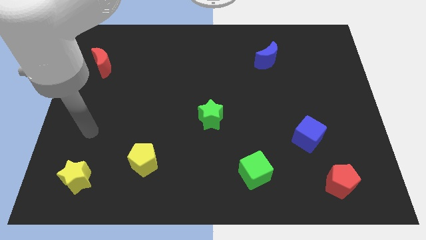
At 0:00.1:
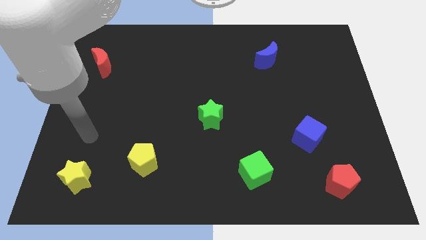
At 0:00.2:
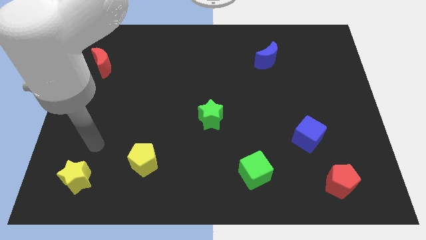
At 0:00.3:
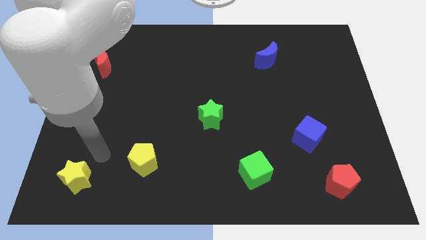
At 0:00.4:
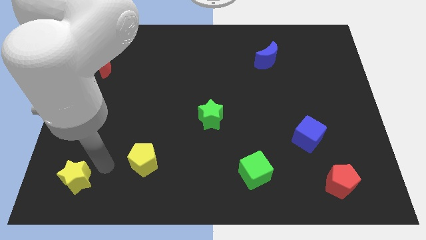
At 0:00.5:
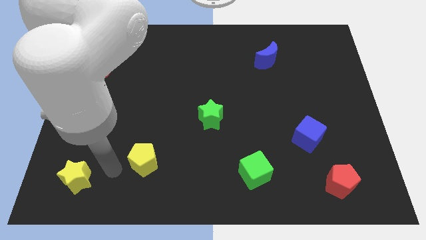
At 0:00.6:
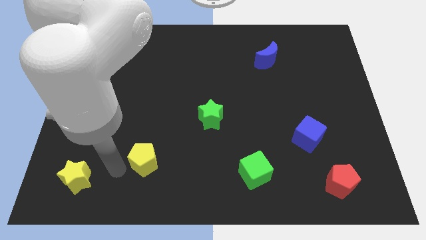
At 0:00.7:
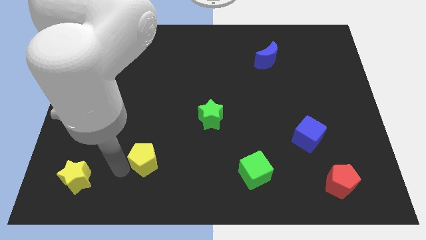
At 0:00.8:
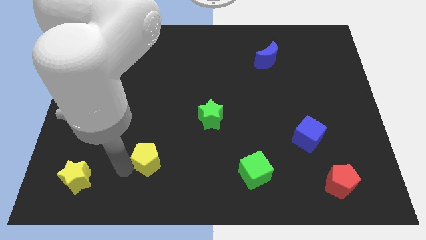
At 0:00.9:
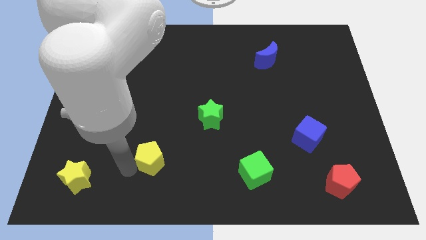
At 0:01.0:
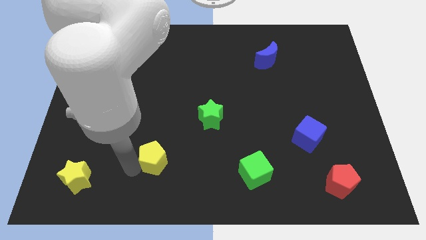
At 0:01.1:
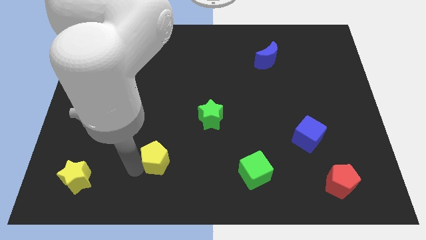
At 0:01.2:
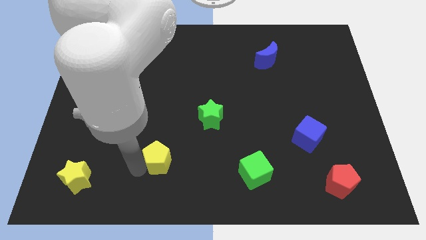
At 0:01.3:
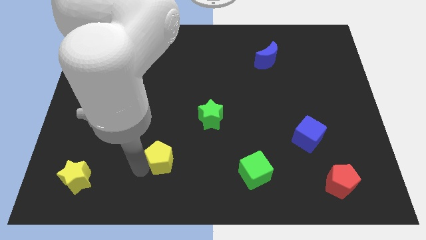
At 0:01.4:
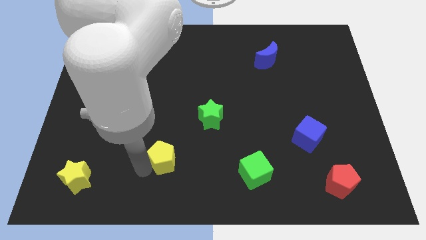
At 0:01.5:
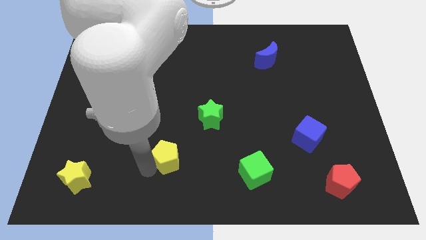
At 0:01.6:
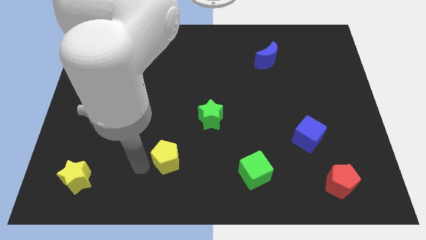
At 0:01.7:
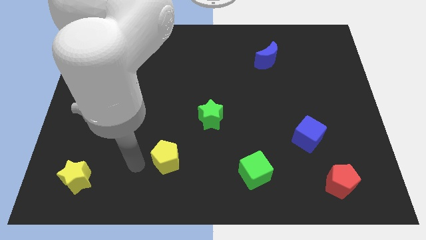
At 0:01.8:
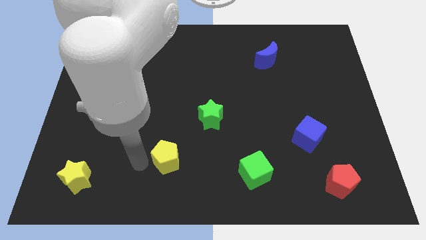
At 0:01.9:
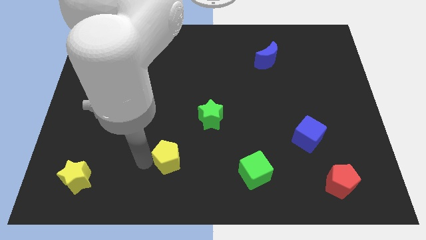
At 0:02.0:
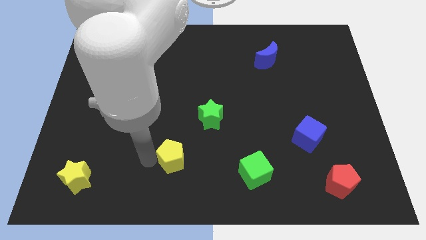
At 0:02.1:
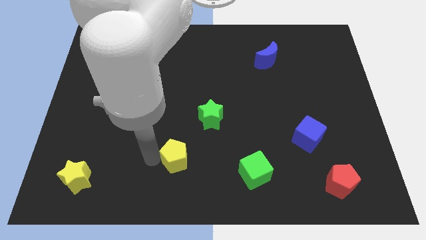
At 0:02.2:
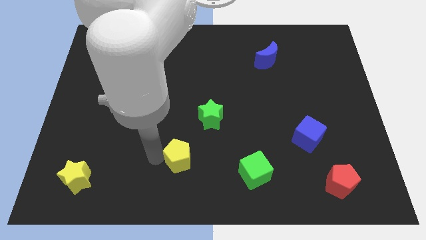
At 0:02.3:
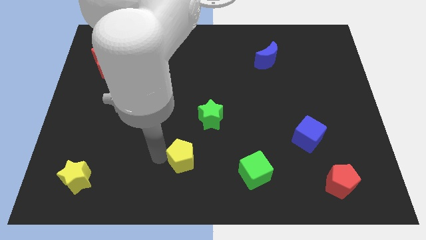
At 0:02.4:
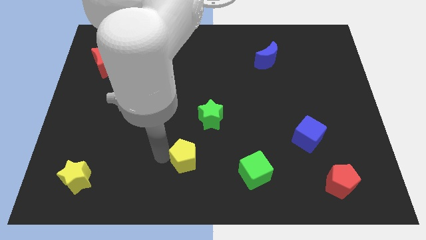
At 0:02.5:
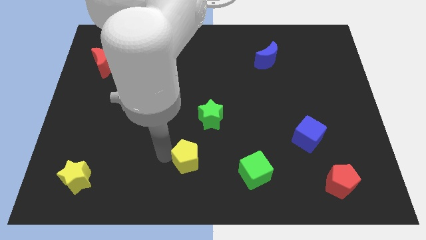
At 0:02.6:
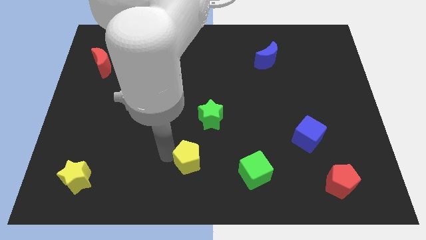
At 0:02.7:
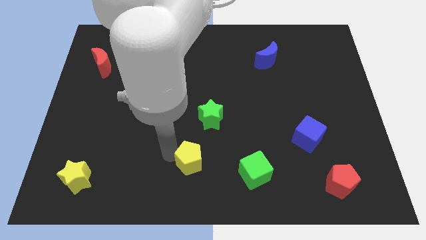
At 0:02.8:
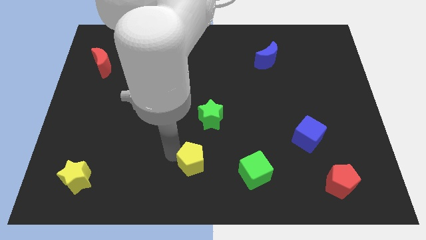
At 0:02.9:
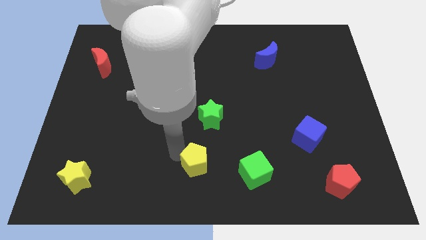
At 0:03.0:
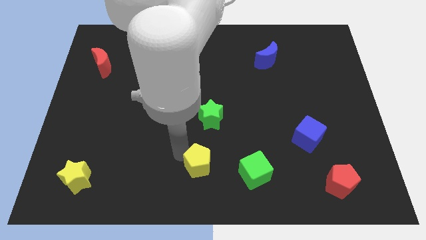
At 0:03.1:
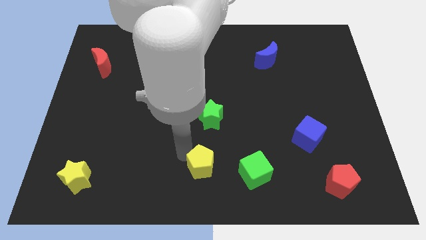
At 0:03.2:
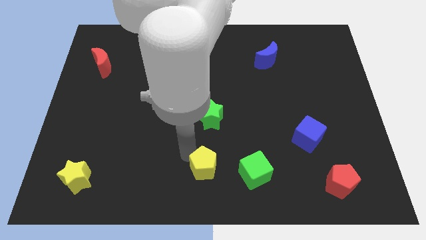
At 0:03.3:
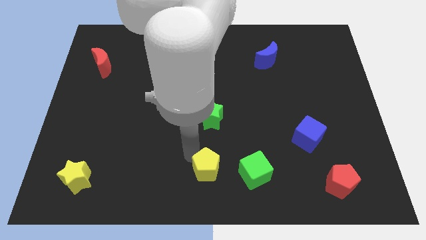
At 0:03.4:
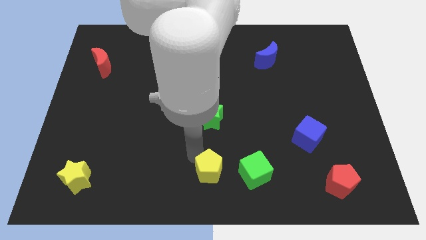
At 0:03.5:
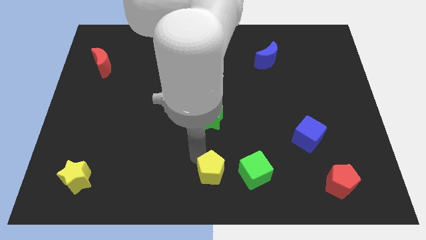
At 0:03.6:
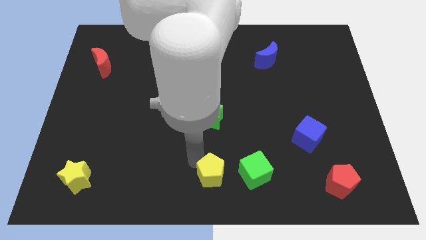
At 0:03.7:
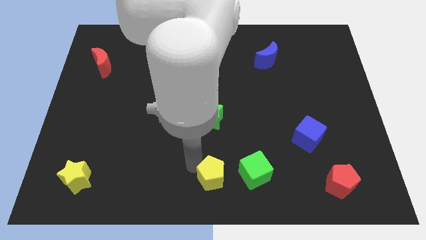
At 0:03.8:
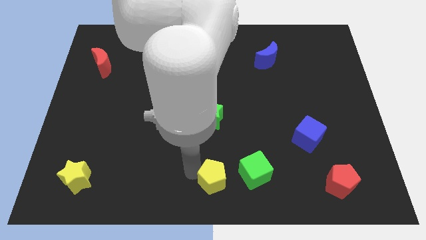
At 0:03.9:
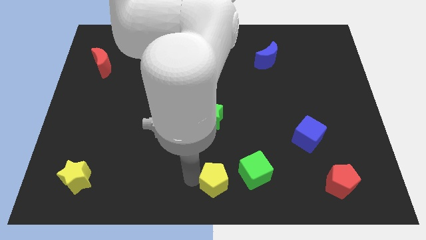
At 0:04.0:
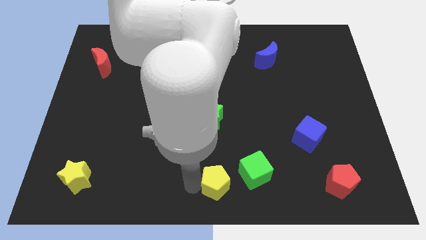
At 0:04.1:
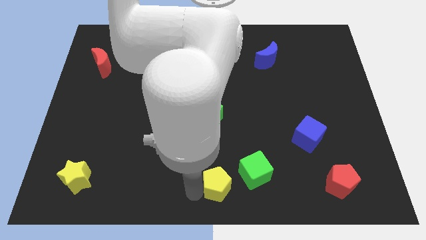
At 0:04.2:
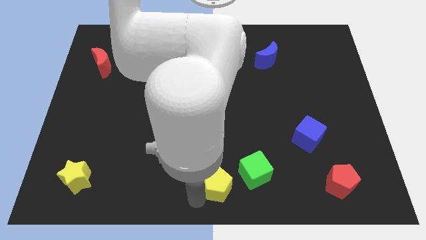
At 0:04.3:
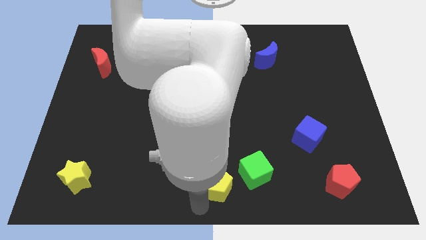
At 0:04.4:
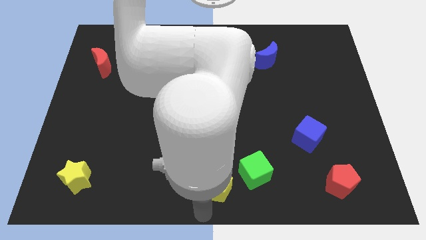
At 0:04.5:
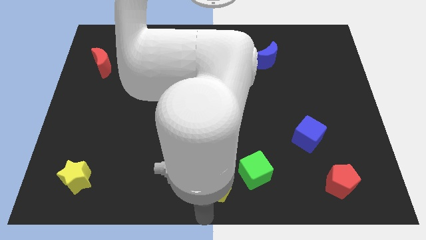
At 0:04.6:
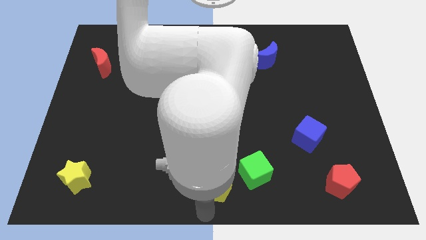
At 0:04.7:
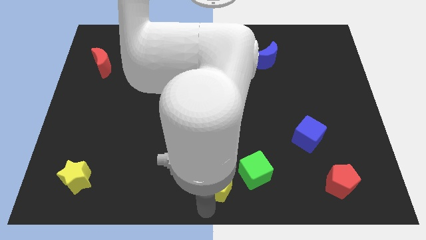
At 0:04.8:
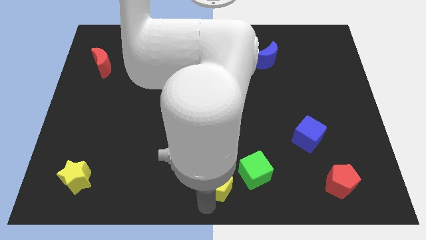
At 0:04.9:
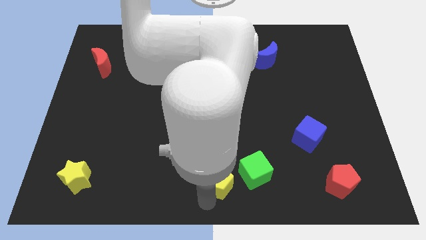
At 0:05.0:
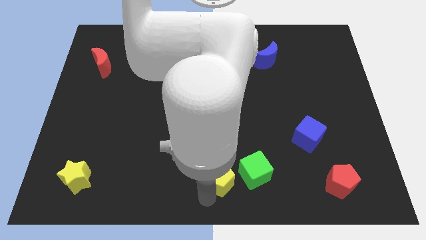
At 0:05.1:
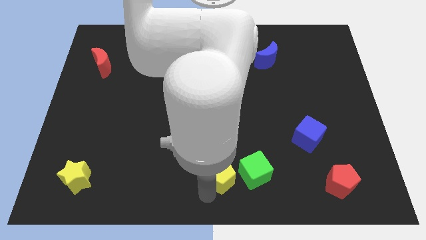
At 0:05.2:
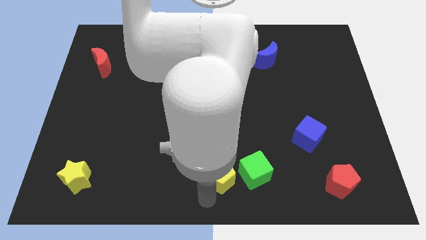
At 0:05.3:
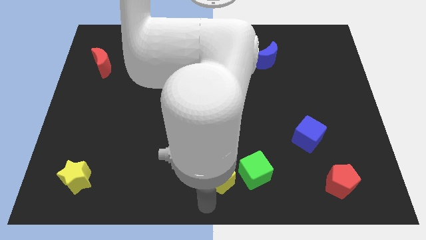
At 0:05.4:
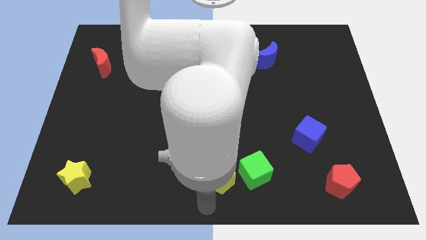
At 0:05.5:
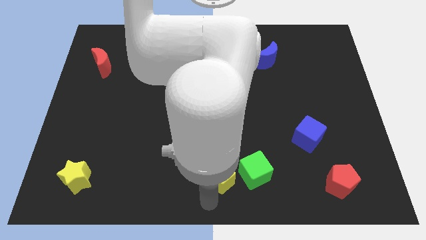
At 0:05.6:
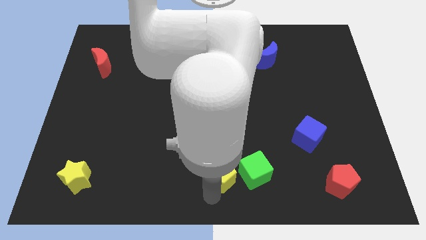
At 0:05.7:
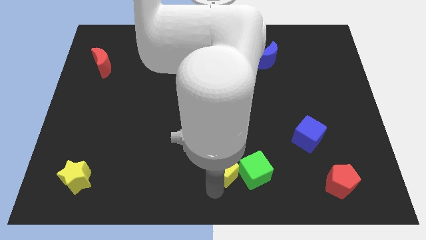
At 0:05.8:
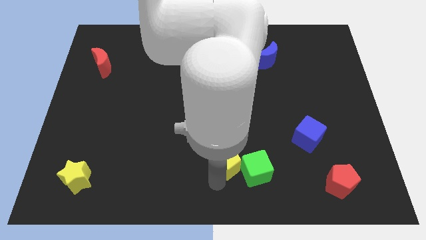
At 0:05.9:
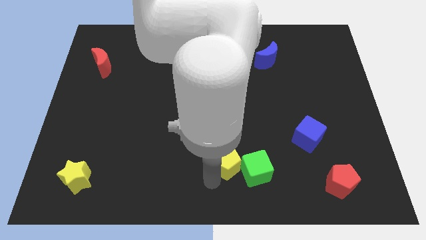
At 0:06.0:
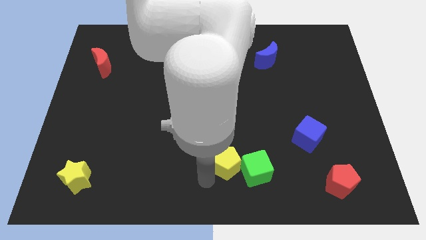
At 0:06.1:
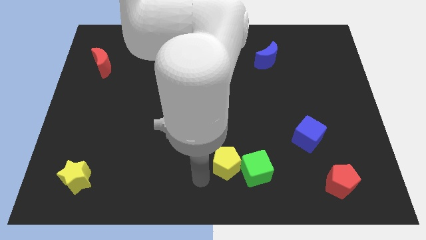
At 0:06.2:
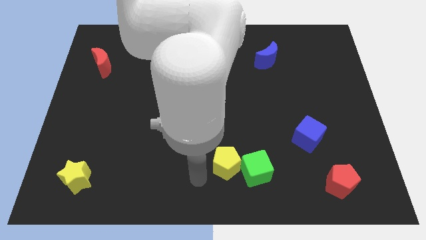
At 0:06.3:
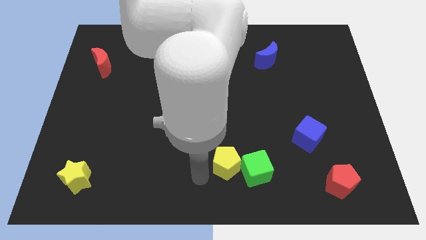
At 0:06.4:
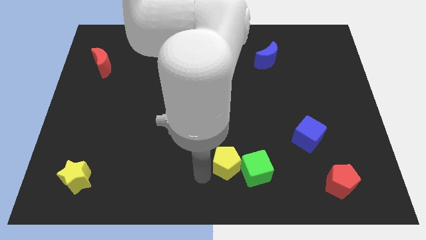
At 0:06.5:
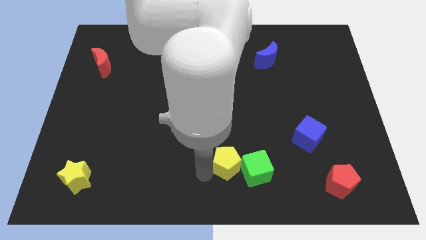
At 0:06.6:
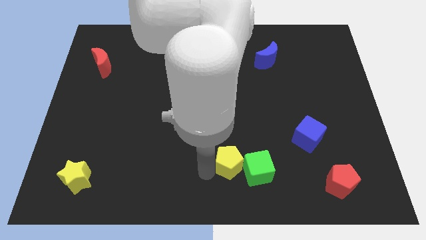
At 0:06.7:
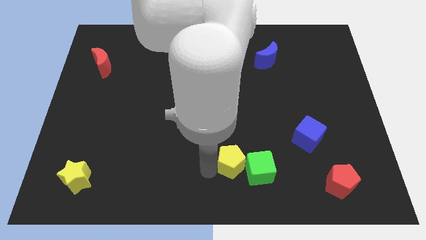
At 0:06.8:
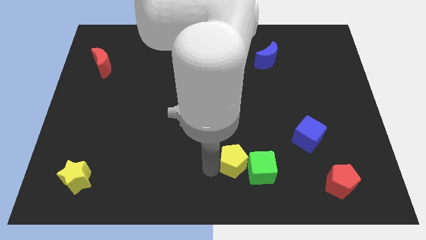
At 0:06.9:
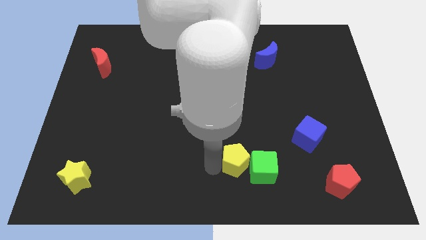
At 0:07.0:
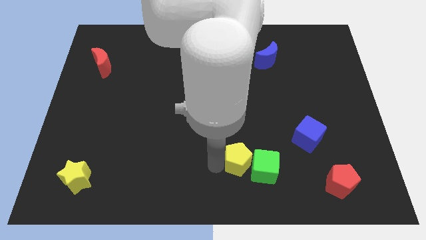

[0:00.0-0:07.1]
slide the yellow pentagon right

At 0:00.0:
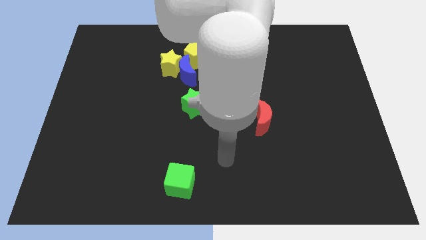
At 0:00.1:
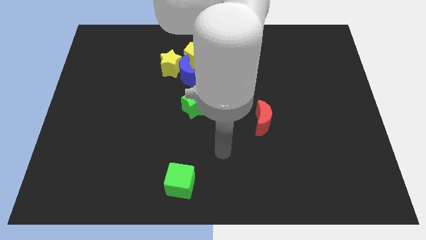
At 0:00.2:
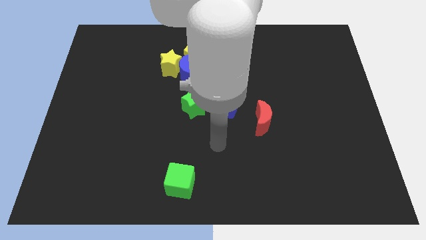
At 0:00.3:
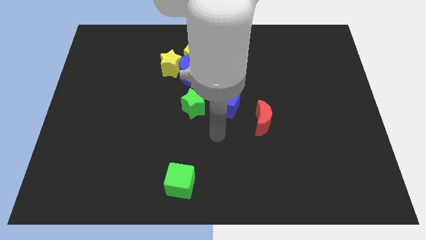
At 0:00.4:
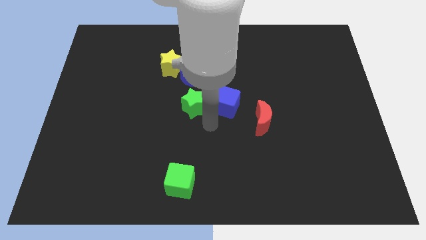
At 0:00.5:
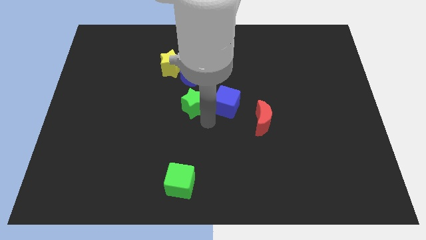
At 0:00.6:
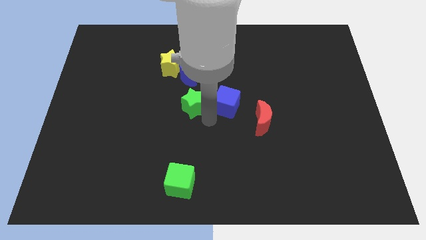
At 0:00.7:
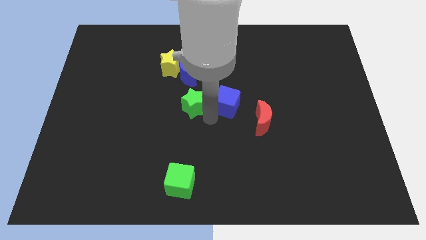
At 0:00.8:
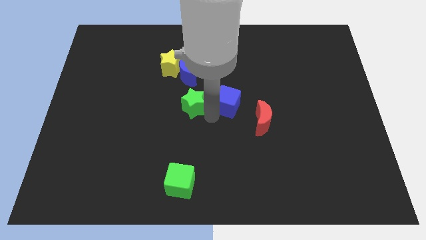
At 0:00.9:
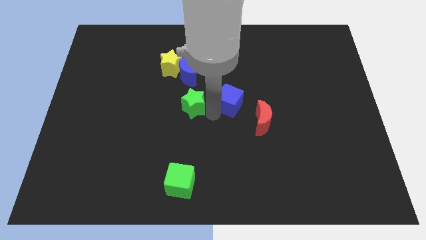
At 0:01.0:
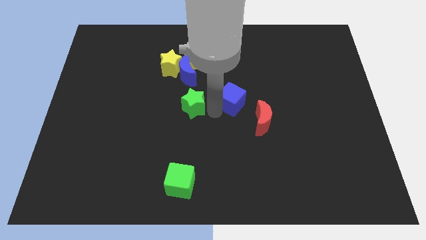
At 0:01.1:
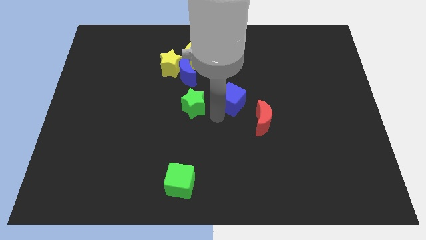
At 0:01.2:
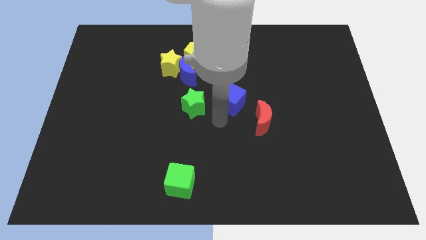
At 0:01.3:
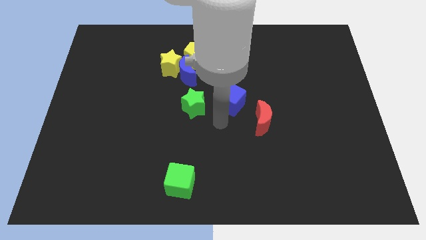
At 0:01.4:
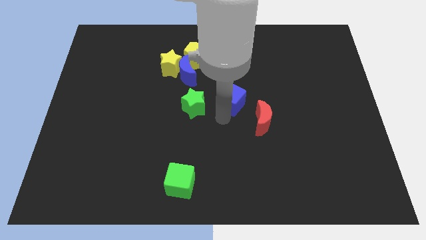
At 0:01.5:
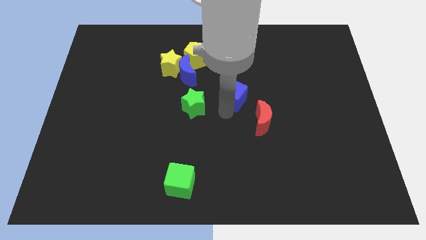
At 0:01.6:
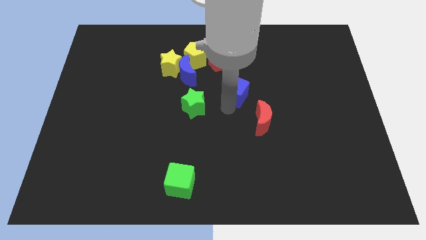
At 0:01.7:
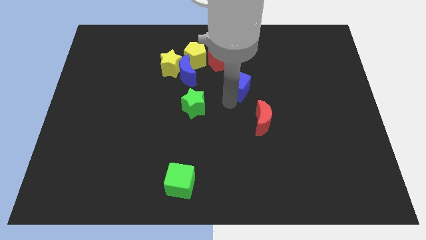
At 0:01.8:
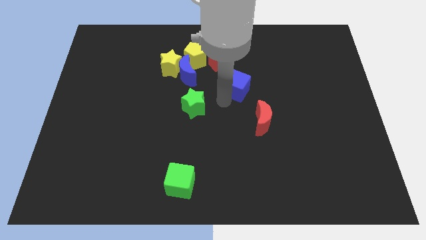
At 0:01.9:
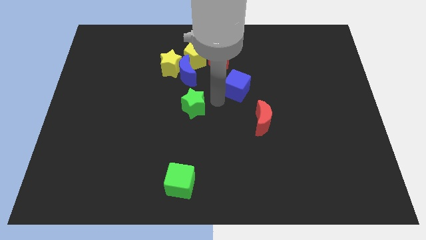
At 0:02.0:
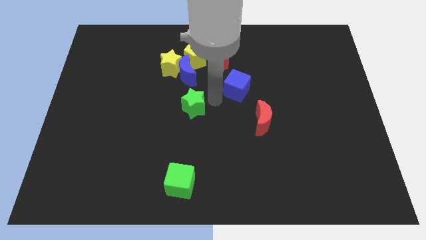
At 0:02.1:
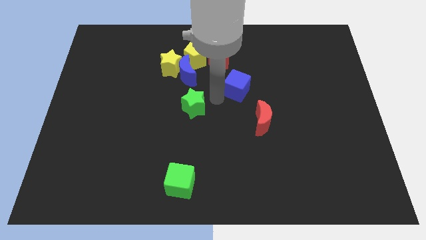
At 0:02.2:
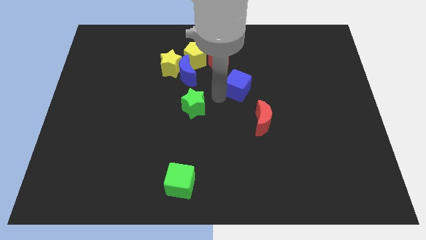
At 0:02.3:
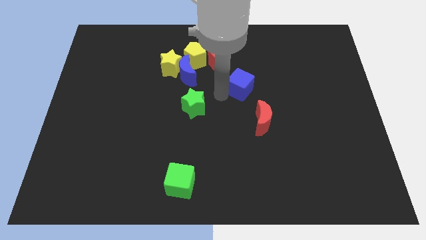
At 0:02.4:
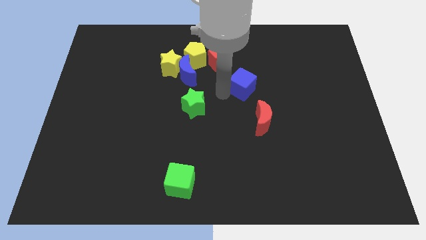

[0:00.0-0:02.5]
slightly push the blue cube up and to the right diagonally
